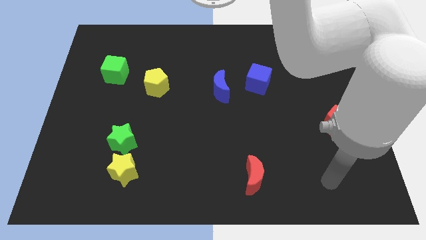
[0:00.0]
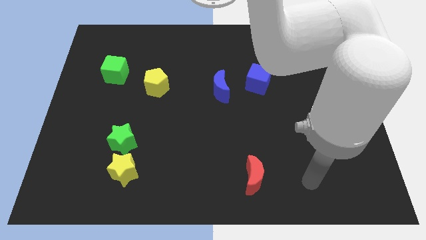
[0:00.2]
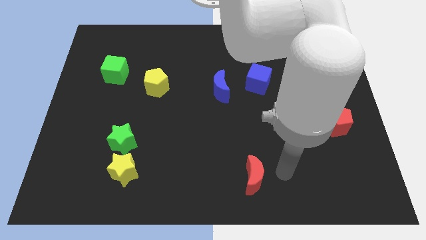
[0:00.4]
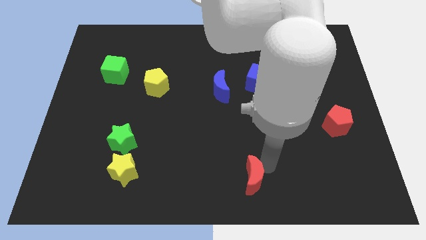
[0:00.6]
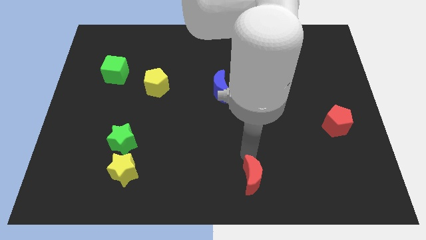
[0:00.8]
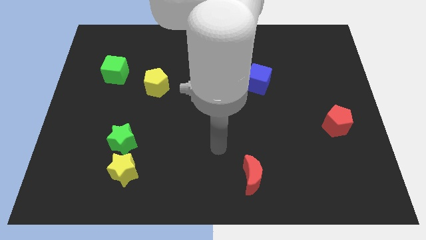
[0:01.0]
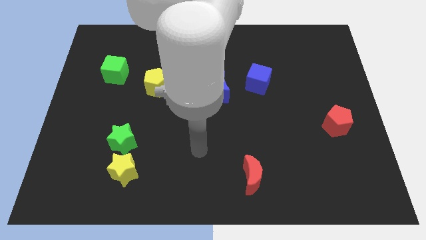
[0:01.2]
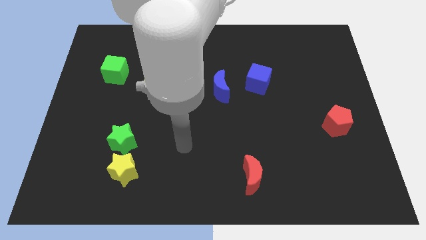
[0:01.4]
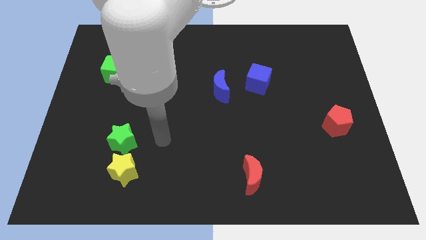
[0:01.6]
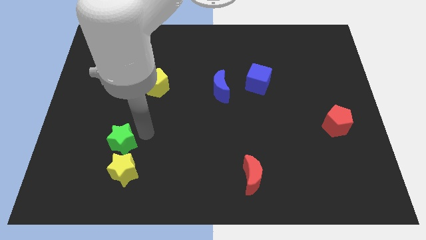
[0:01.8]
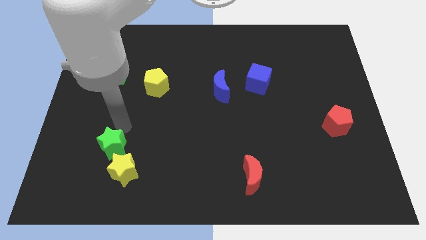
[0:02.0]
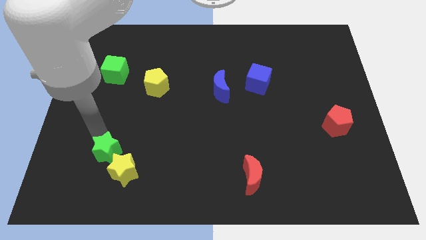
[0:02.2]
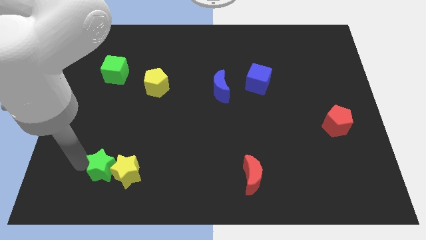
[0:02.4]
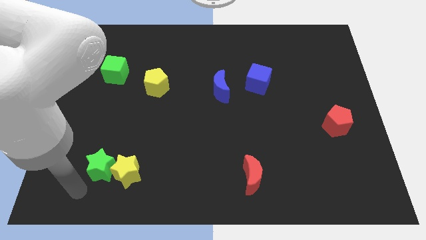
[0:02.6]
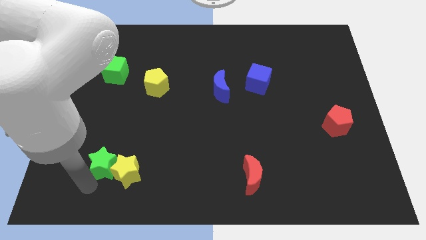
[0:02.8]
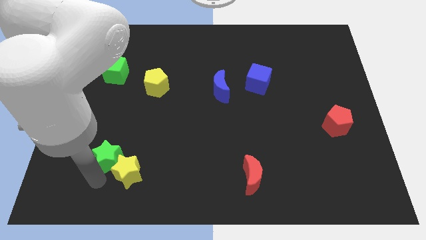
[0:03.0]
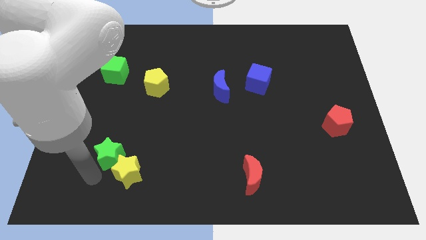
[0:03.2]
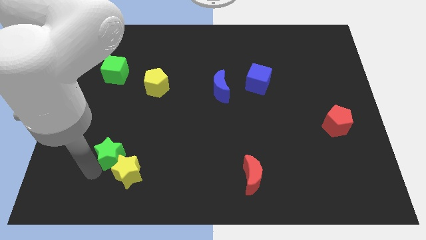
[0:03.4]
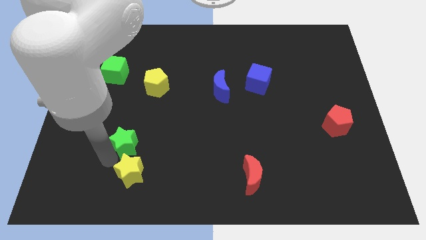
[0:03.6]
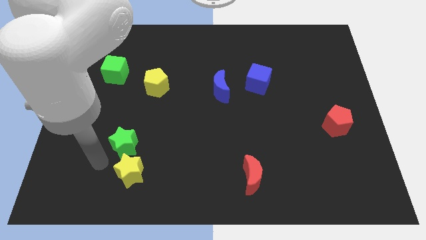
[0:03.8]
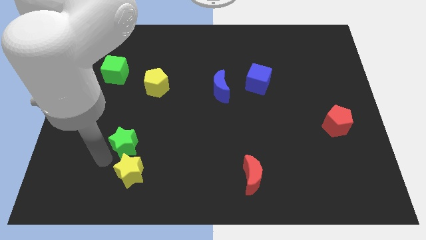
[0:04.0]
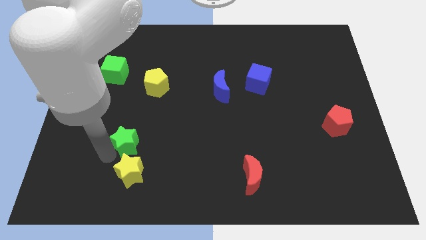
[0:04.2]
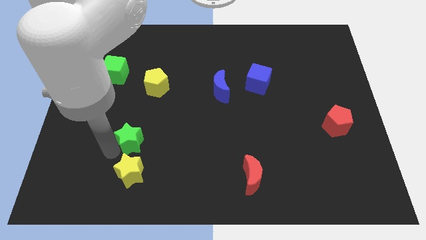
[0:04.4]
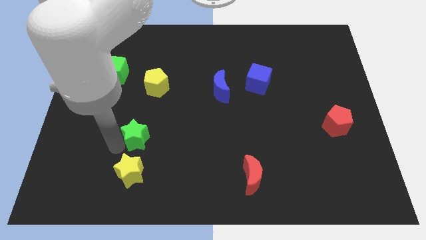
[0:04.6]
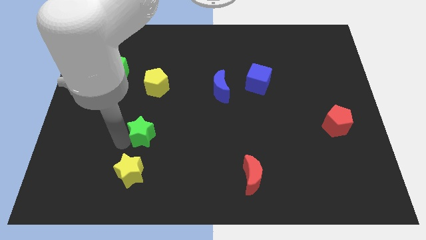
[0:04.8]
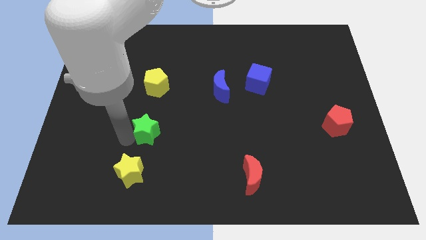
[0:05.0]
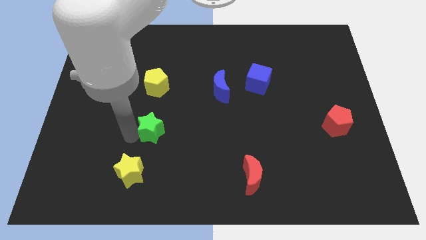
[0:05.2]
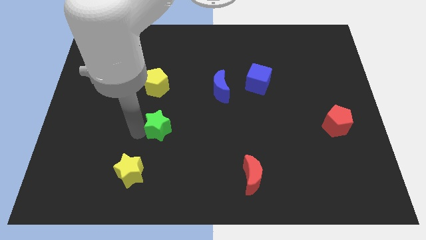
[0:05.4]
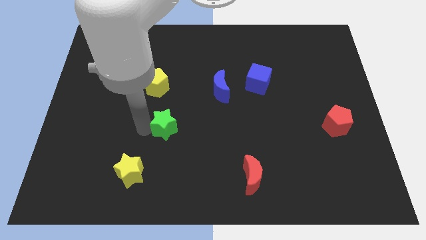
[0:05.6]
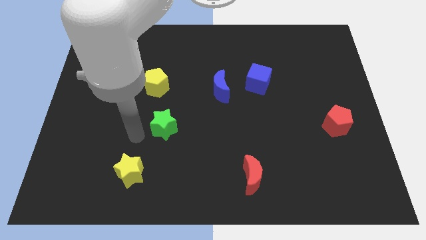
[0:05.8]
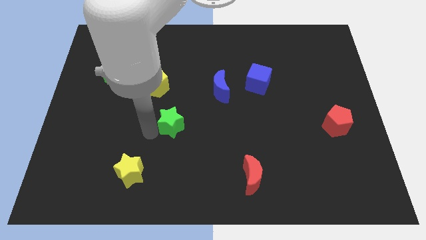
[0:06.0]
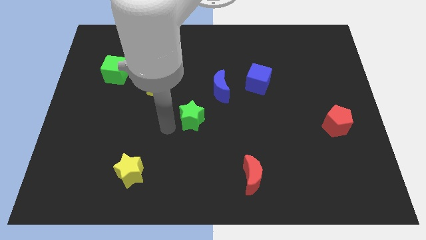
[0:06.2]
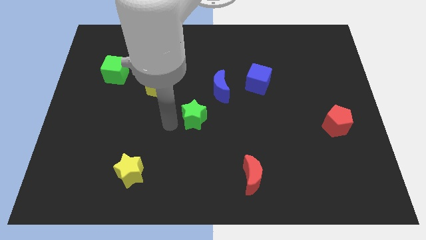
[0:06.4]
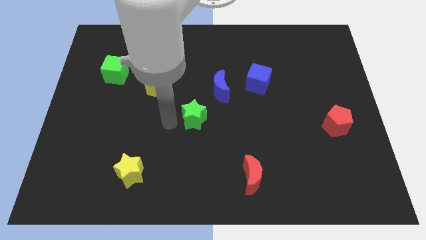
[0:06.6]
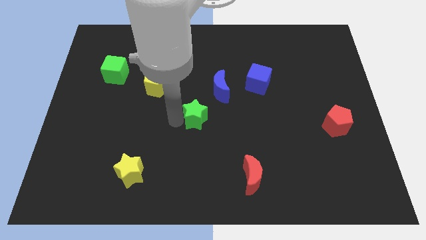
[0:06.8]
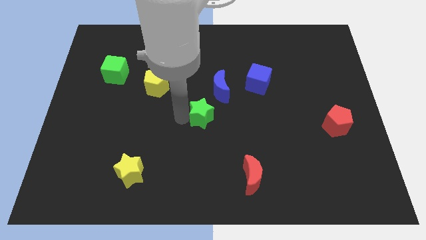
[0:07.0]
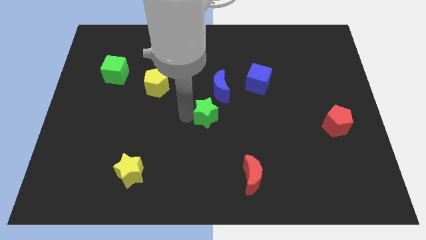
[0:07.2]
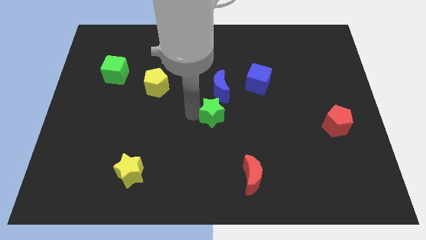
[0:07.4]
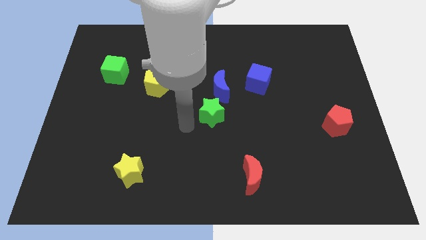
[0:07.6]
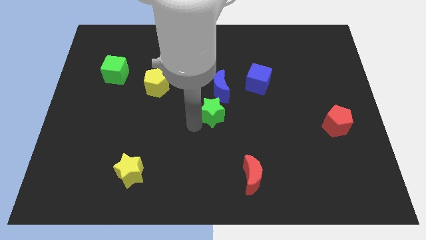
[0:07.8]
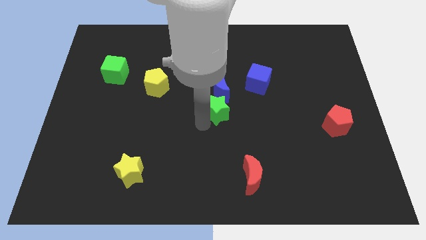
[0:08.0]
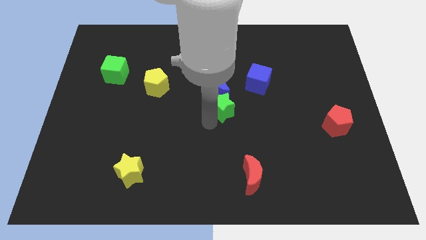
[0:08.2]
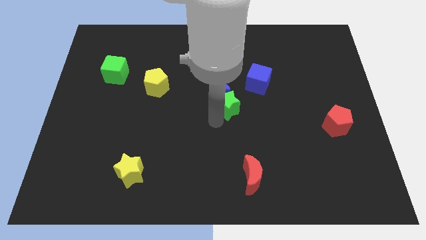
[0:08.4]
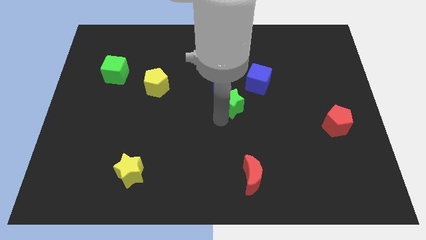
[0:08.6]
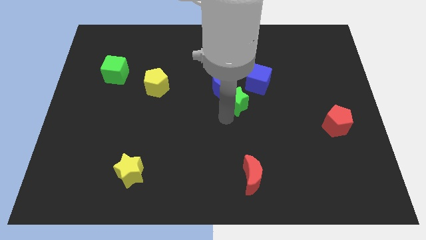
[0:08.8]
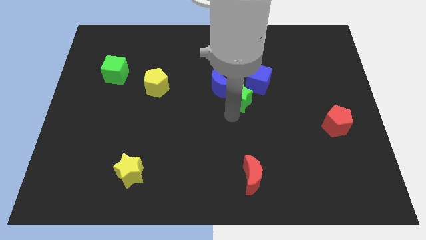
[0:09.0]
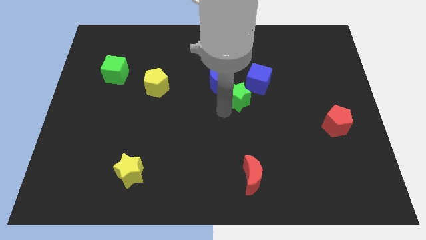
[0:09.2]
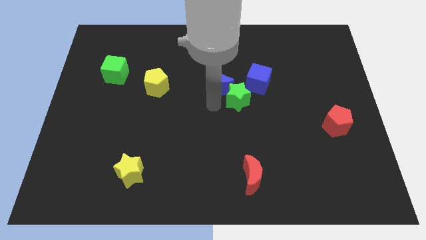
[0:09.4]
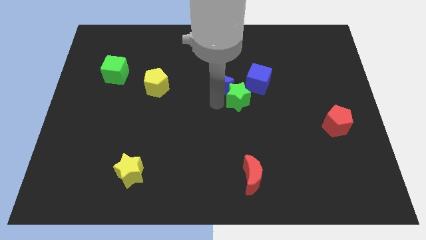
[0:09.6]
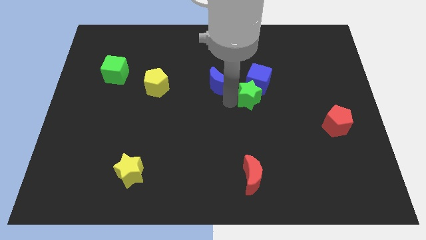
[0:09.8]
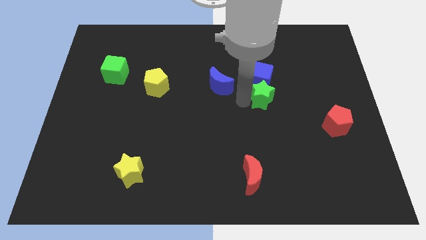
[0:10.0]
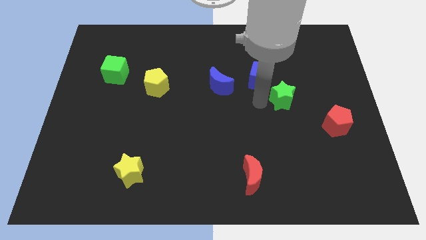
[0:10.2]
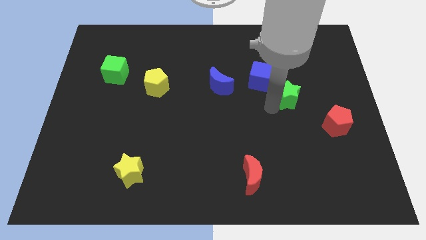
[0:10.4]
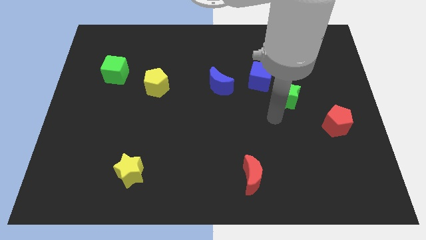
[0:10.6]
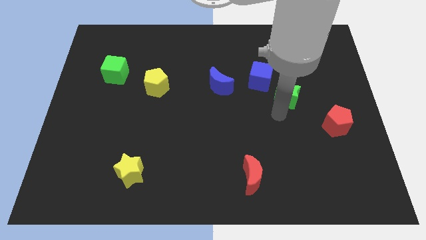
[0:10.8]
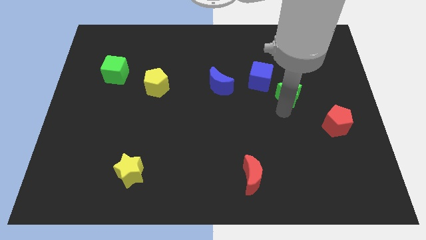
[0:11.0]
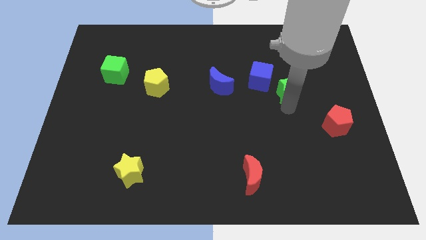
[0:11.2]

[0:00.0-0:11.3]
put the green star just right of the blue cube
